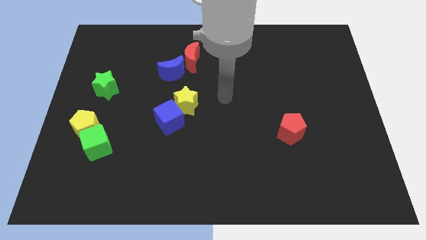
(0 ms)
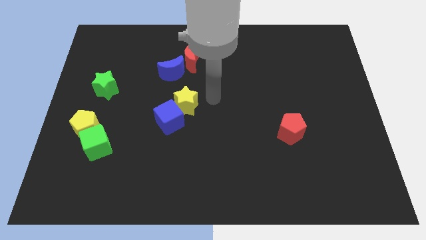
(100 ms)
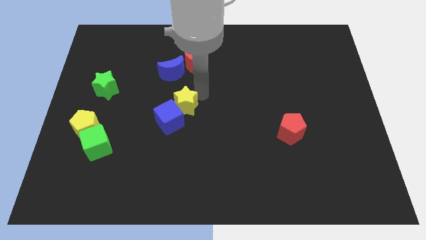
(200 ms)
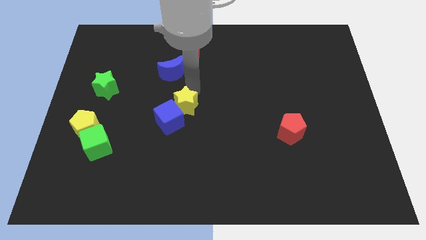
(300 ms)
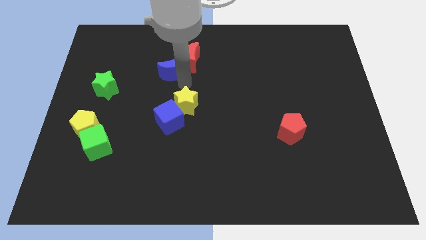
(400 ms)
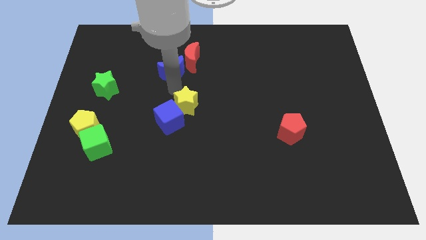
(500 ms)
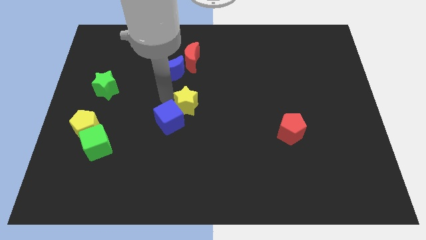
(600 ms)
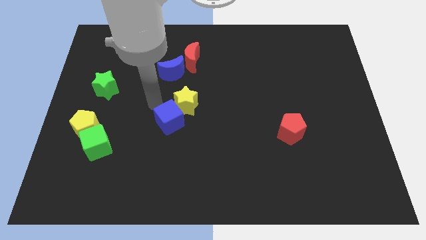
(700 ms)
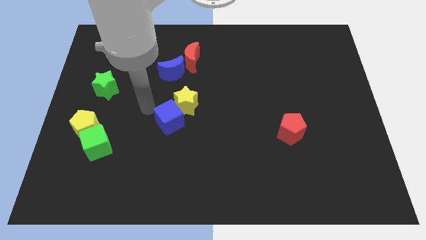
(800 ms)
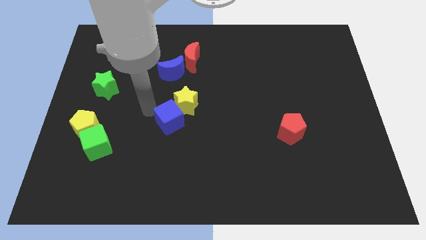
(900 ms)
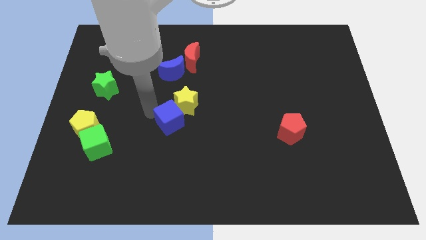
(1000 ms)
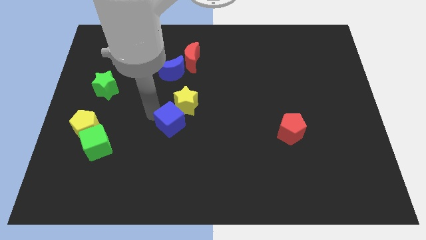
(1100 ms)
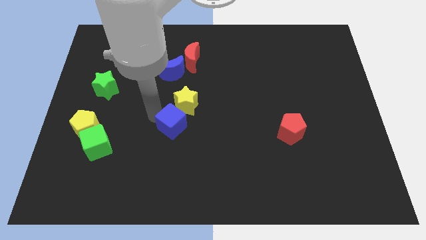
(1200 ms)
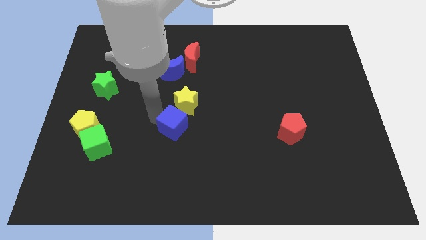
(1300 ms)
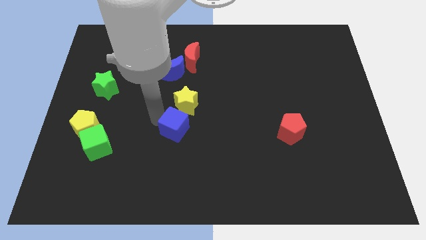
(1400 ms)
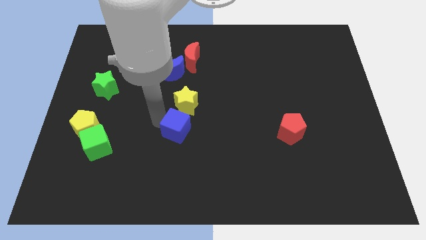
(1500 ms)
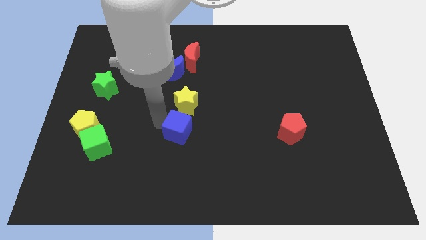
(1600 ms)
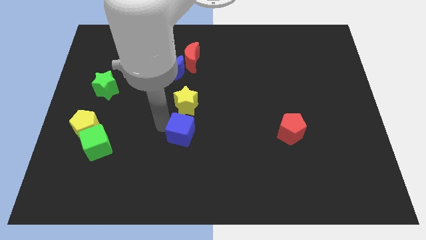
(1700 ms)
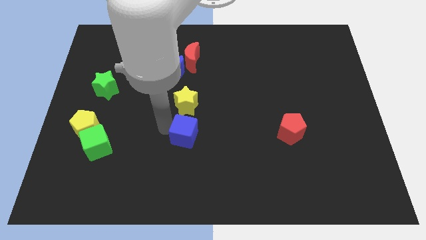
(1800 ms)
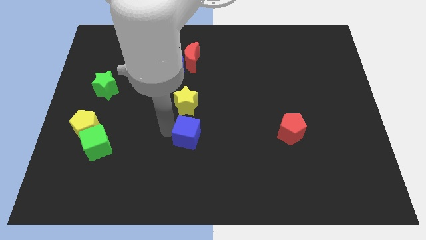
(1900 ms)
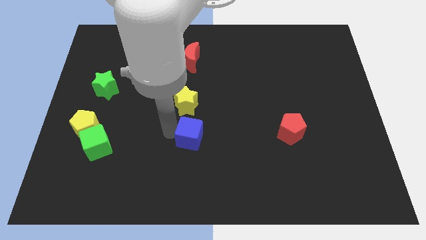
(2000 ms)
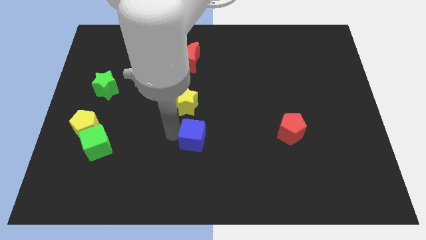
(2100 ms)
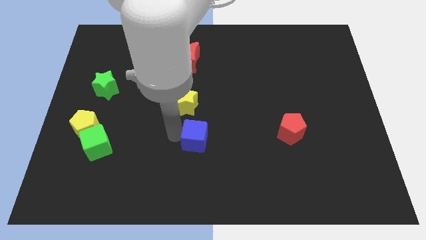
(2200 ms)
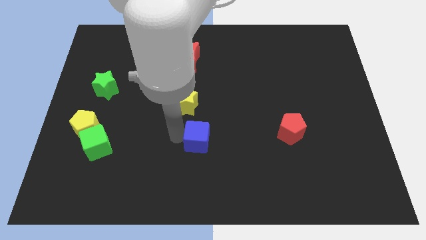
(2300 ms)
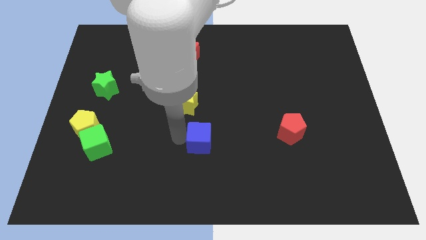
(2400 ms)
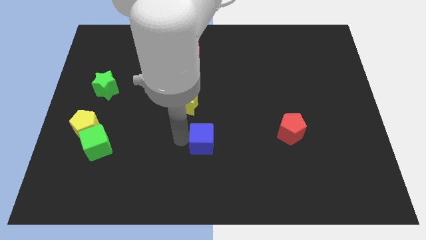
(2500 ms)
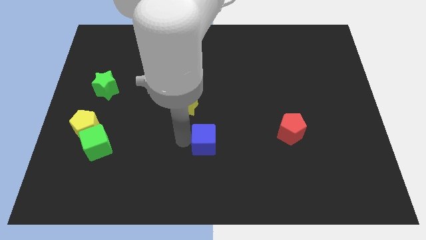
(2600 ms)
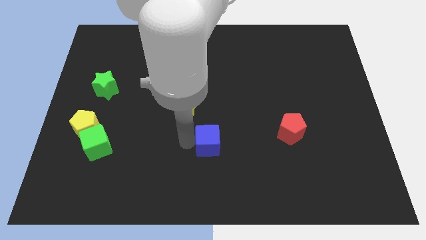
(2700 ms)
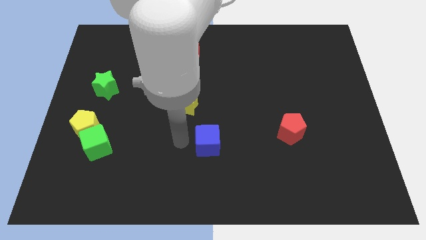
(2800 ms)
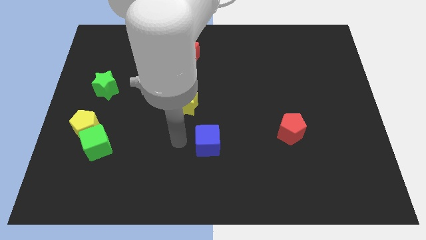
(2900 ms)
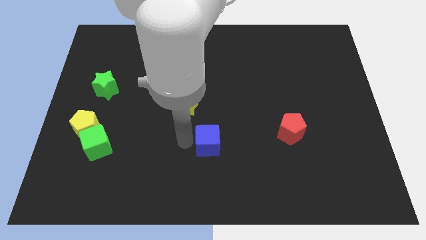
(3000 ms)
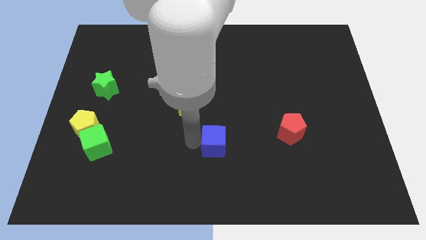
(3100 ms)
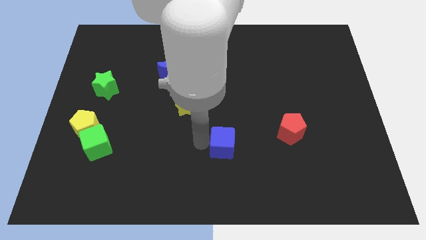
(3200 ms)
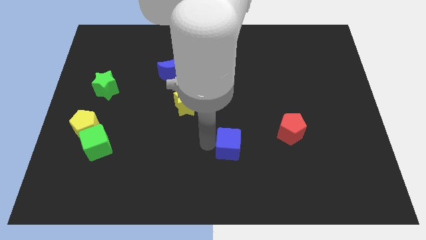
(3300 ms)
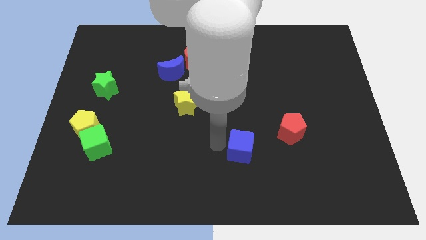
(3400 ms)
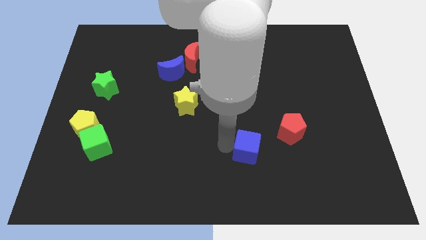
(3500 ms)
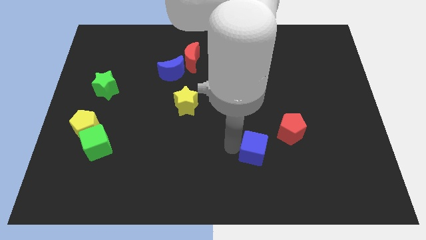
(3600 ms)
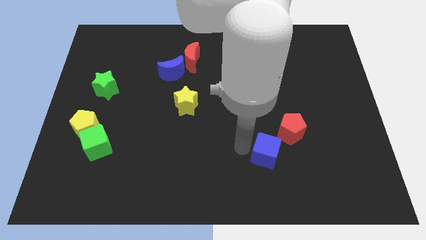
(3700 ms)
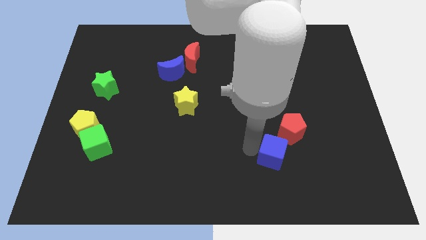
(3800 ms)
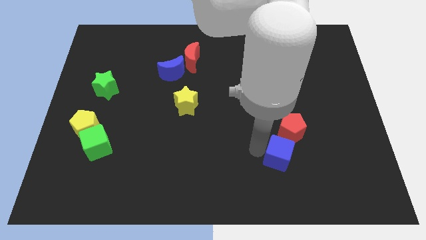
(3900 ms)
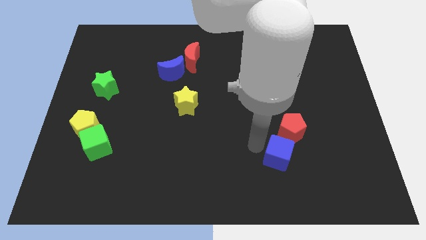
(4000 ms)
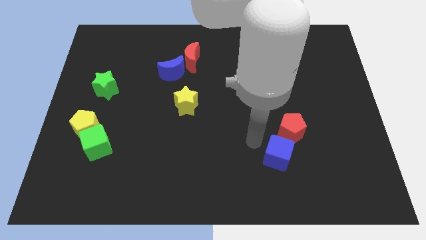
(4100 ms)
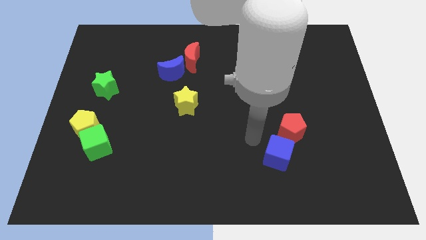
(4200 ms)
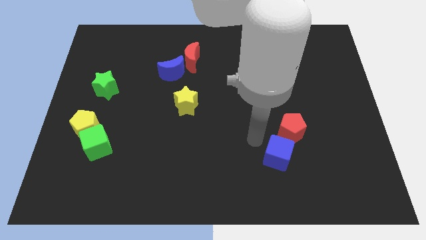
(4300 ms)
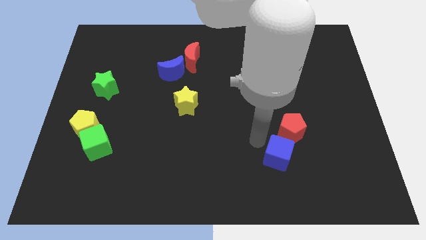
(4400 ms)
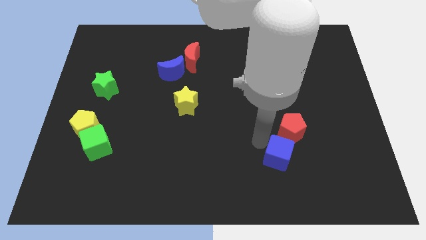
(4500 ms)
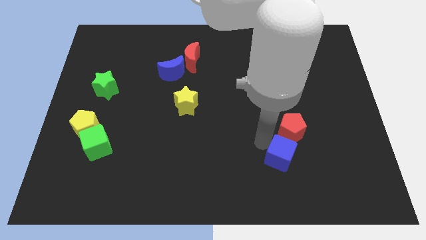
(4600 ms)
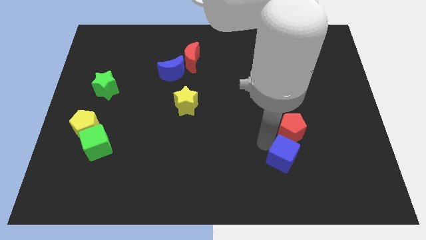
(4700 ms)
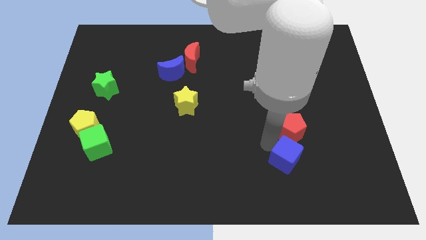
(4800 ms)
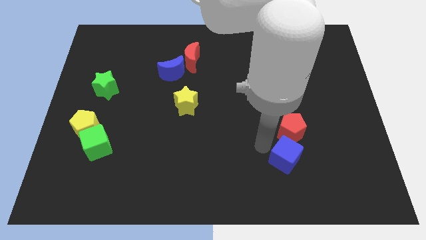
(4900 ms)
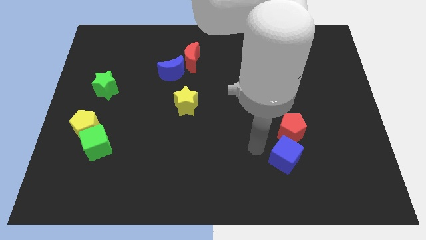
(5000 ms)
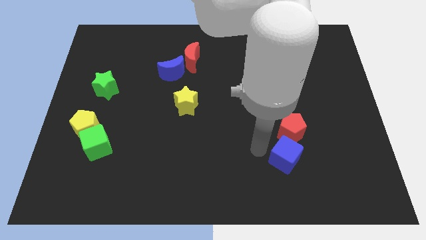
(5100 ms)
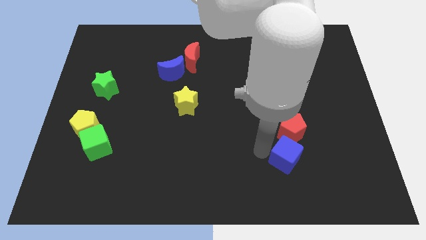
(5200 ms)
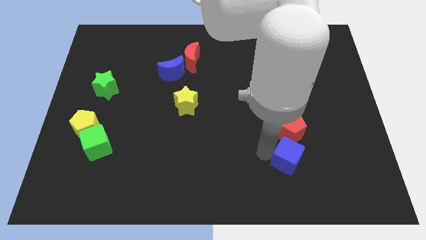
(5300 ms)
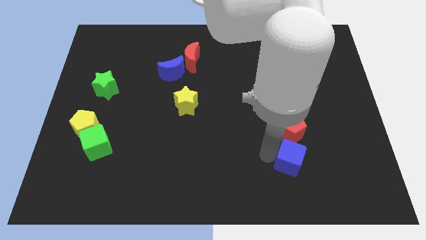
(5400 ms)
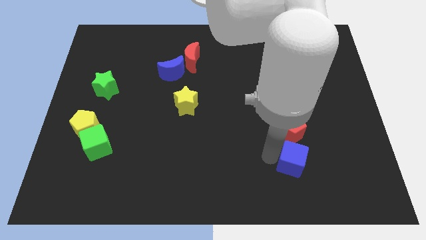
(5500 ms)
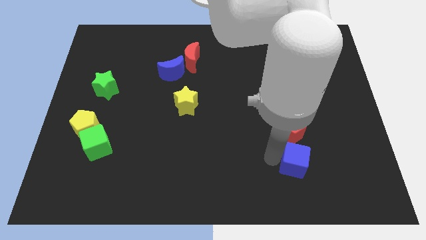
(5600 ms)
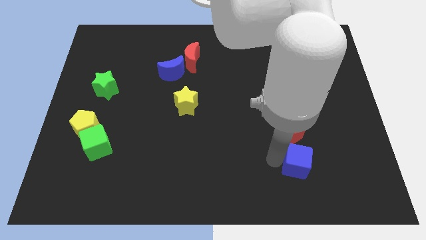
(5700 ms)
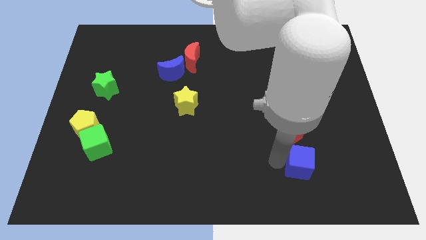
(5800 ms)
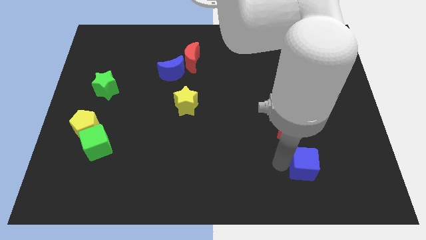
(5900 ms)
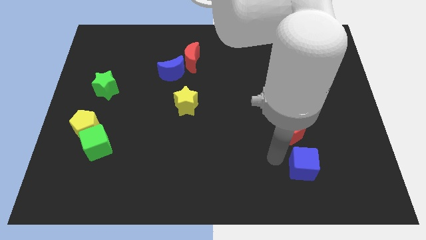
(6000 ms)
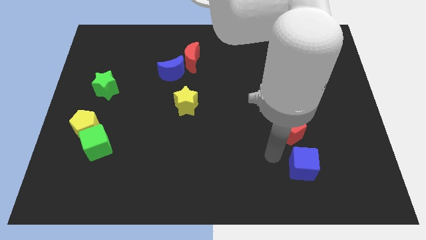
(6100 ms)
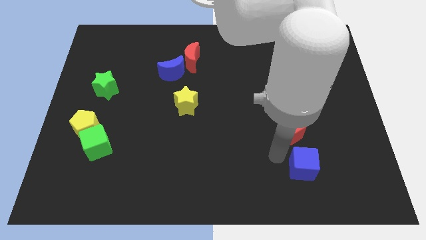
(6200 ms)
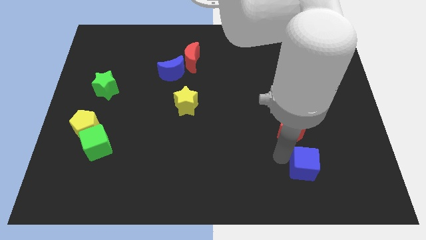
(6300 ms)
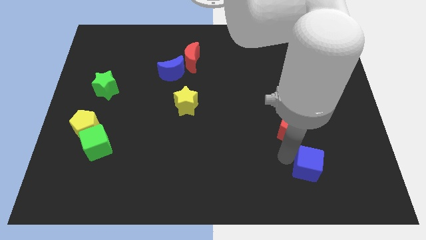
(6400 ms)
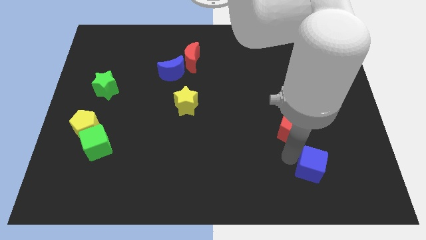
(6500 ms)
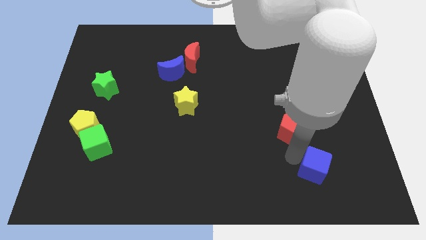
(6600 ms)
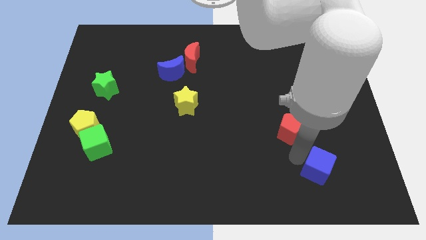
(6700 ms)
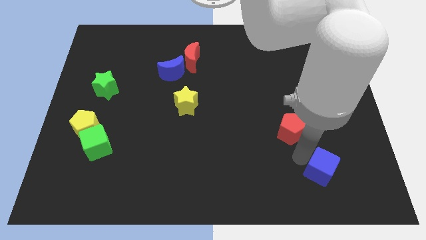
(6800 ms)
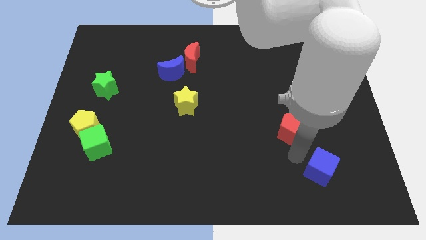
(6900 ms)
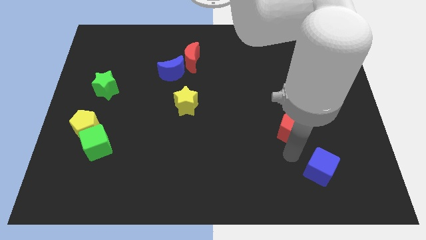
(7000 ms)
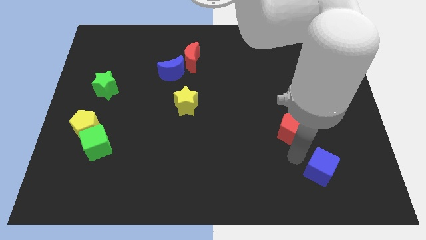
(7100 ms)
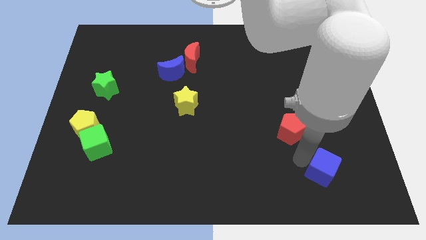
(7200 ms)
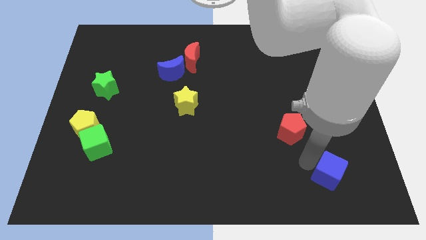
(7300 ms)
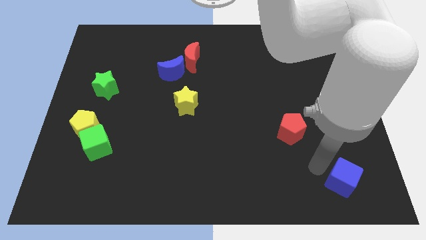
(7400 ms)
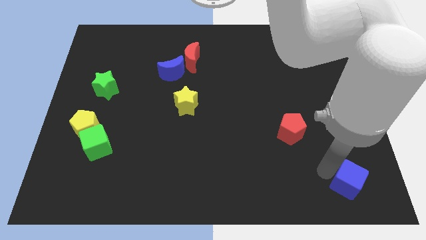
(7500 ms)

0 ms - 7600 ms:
put the blue cube to the bottom right
